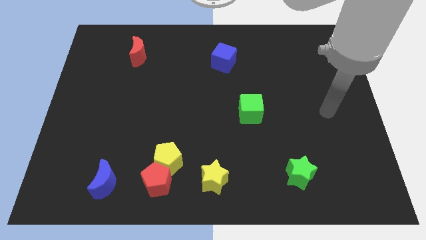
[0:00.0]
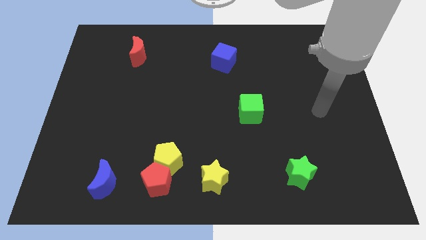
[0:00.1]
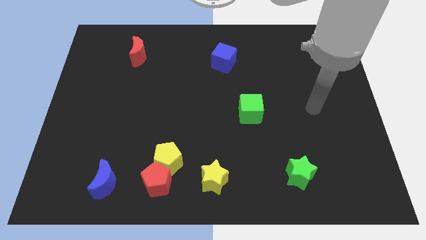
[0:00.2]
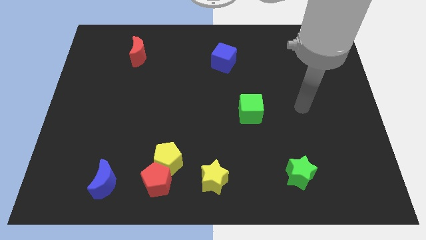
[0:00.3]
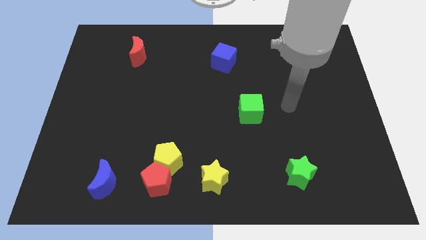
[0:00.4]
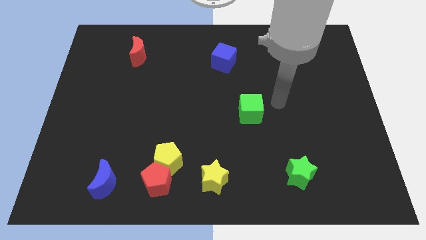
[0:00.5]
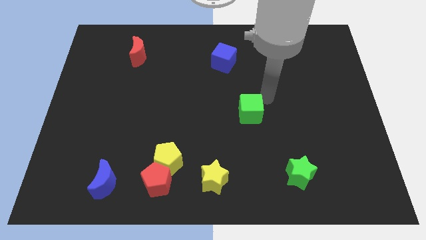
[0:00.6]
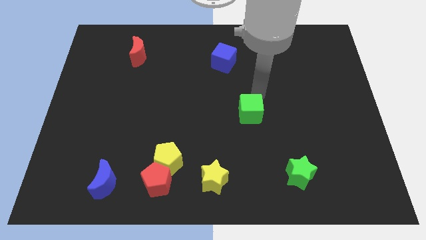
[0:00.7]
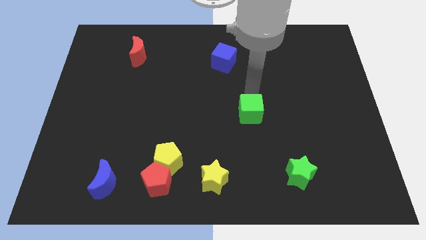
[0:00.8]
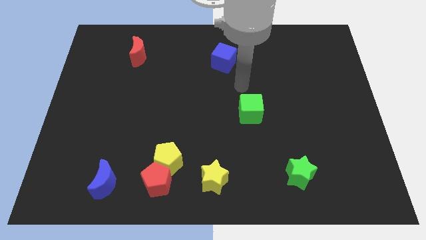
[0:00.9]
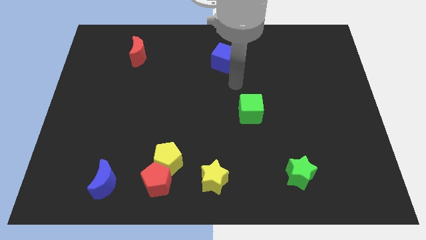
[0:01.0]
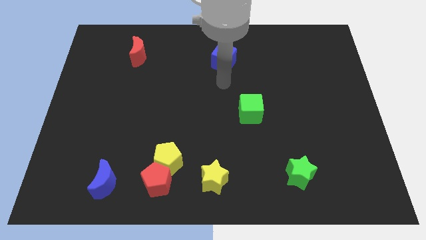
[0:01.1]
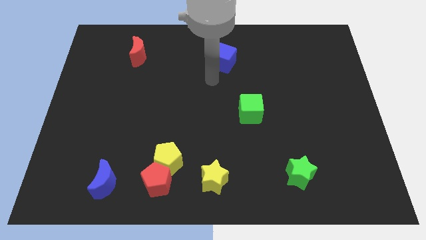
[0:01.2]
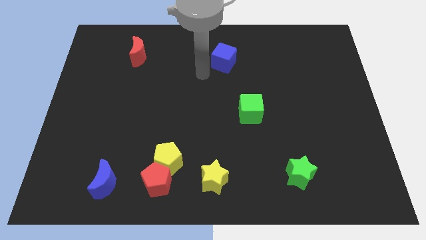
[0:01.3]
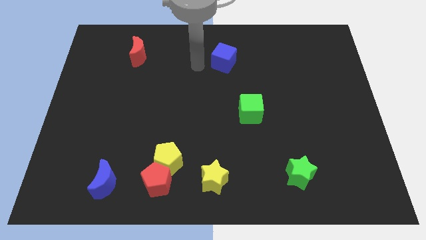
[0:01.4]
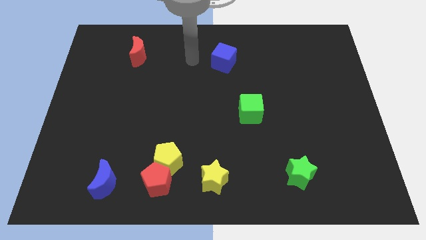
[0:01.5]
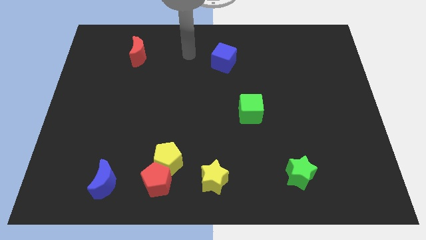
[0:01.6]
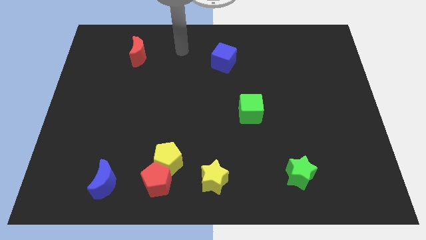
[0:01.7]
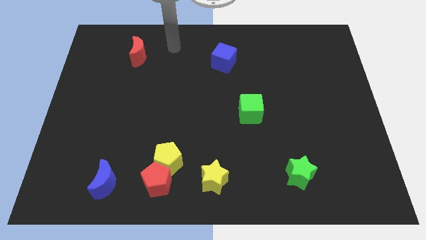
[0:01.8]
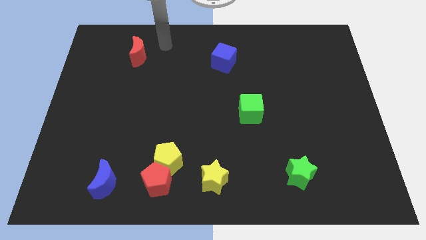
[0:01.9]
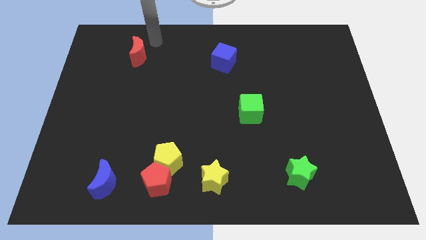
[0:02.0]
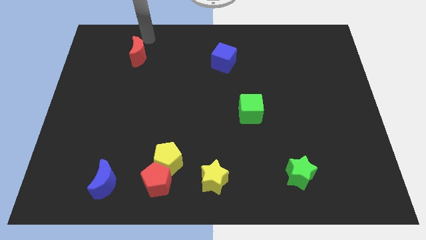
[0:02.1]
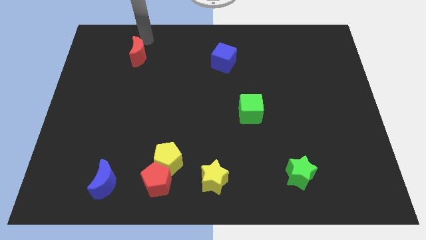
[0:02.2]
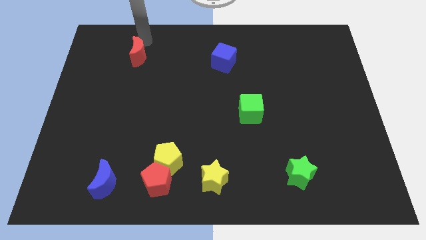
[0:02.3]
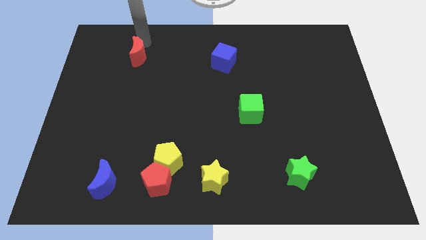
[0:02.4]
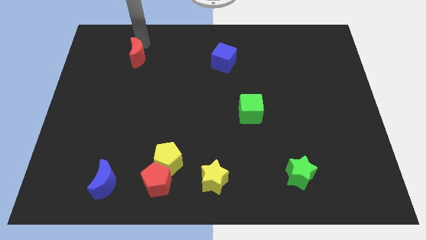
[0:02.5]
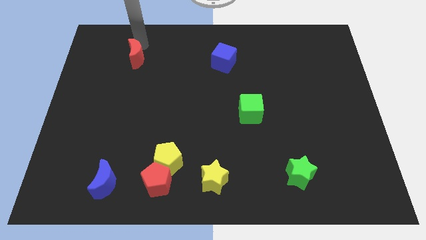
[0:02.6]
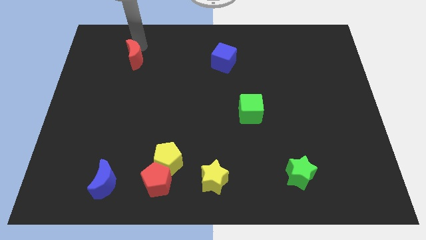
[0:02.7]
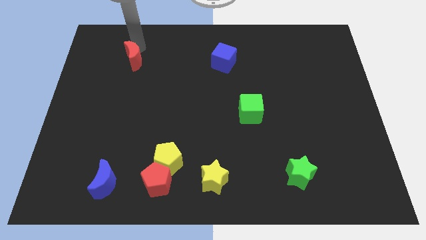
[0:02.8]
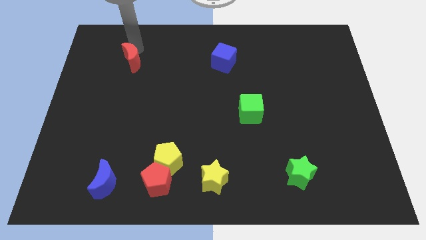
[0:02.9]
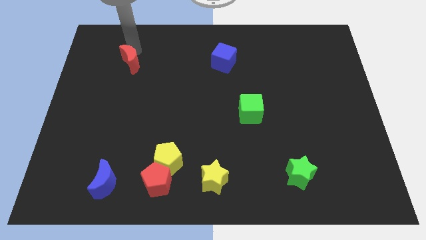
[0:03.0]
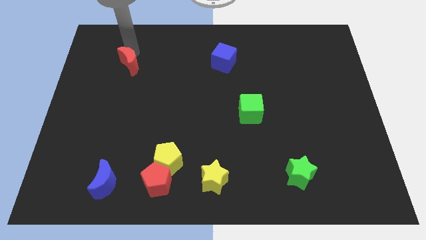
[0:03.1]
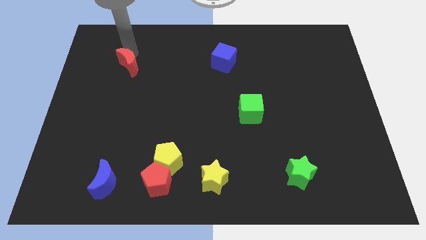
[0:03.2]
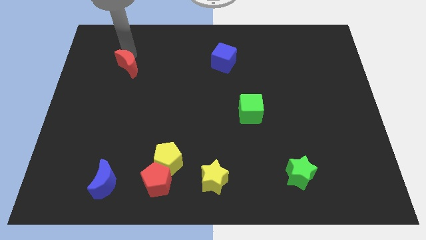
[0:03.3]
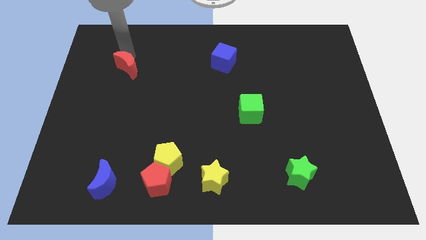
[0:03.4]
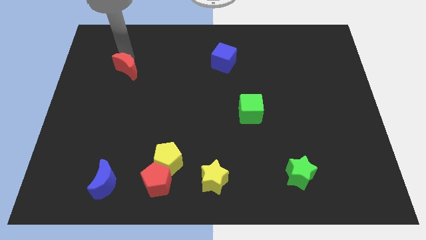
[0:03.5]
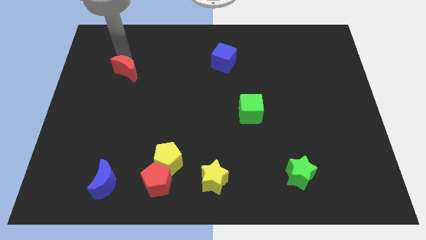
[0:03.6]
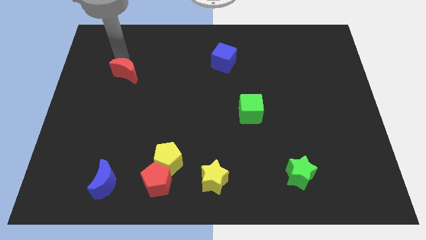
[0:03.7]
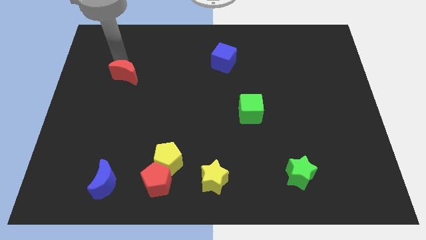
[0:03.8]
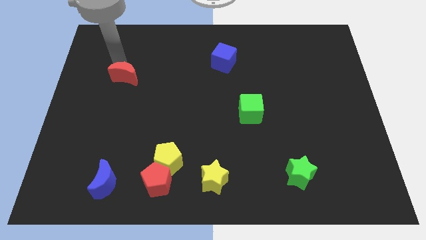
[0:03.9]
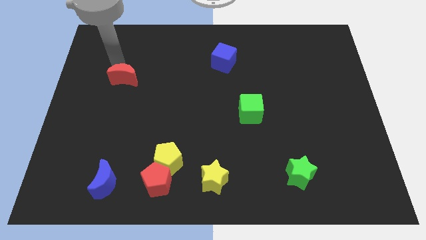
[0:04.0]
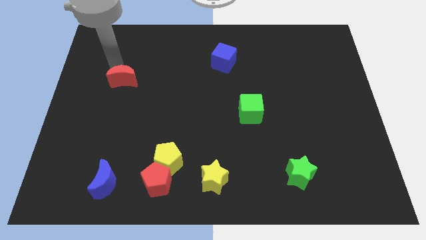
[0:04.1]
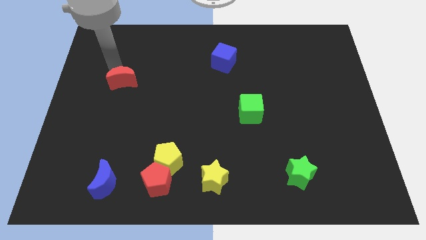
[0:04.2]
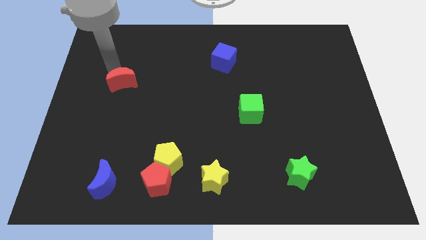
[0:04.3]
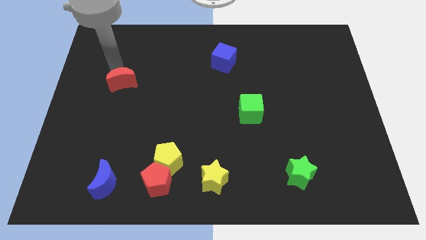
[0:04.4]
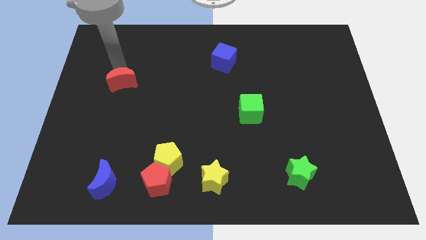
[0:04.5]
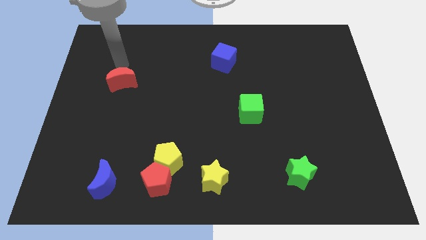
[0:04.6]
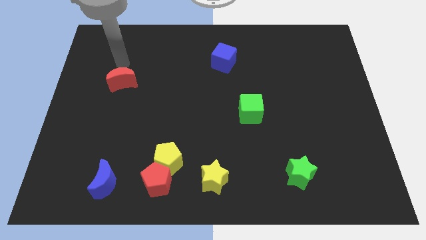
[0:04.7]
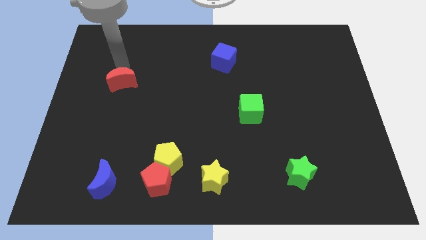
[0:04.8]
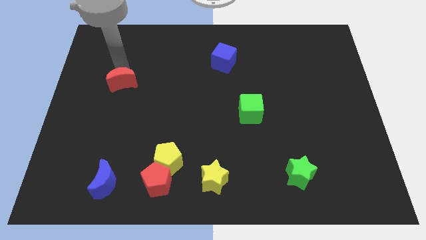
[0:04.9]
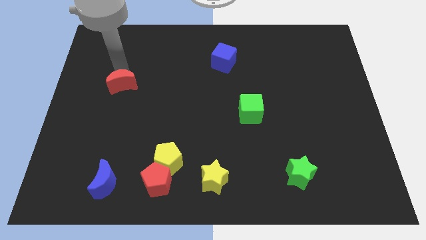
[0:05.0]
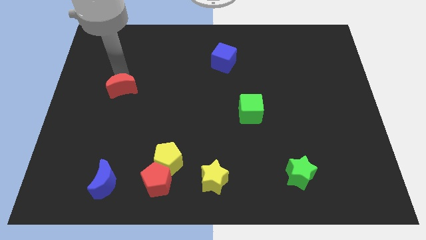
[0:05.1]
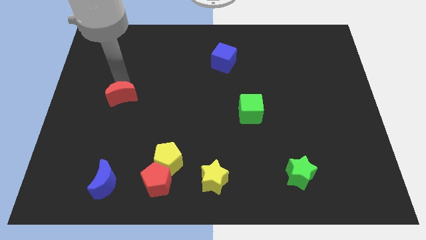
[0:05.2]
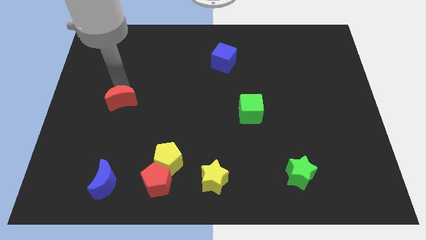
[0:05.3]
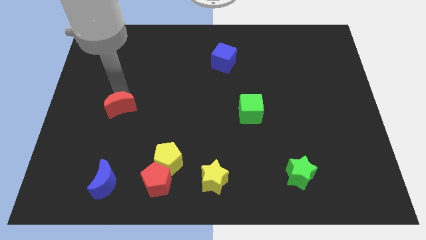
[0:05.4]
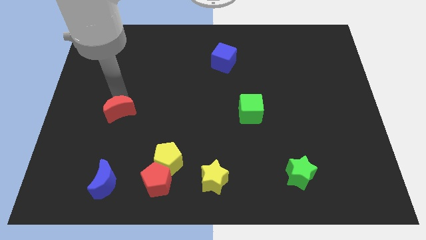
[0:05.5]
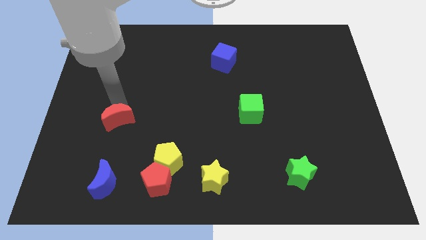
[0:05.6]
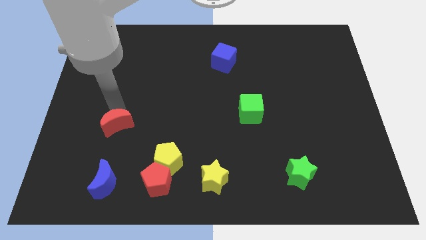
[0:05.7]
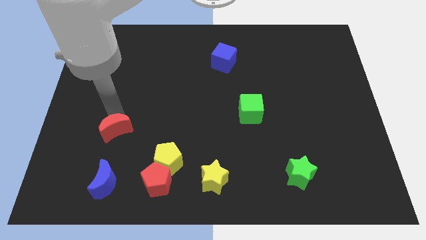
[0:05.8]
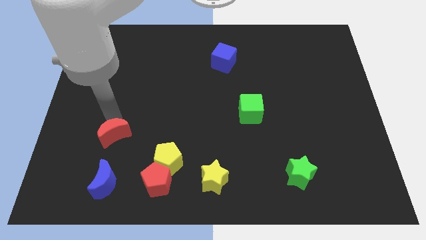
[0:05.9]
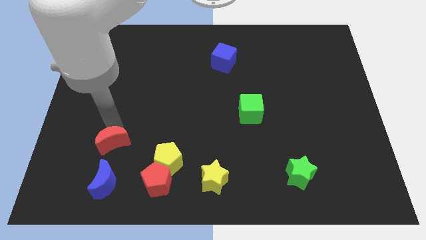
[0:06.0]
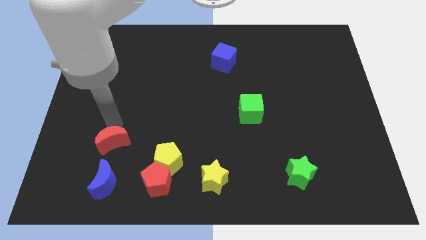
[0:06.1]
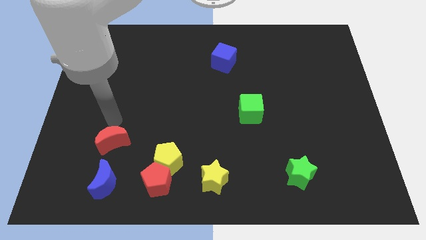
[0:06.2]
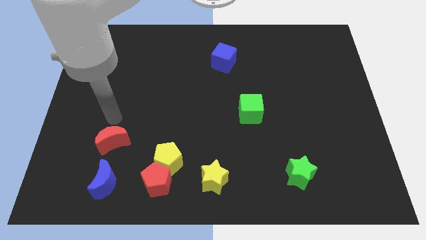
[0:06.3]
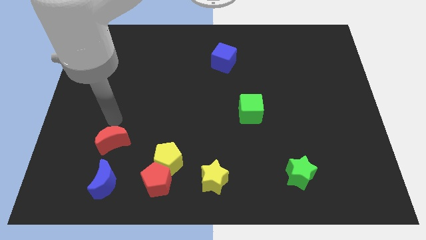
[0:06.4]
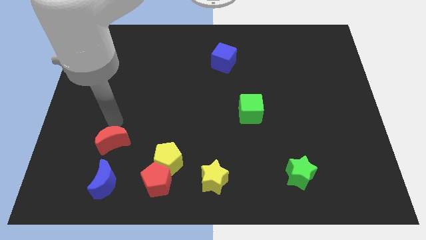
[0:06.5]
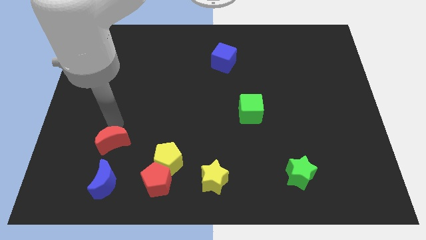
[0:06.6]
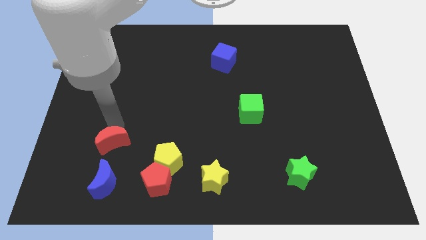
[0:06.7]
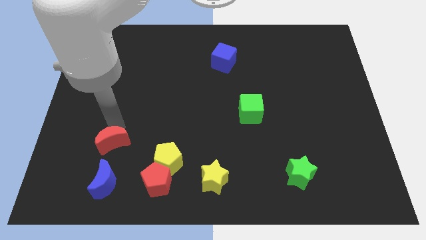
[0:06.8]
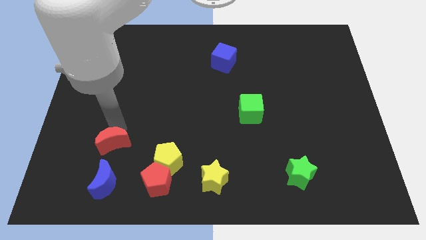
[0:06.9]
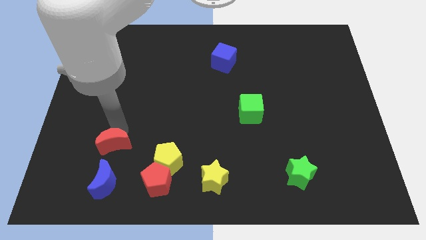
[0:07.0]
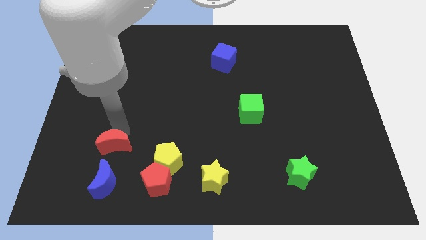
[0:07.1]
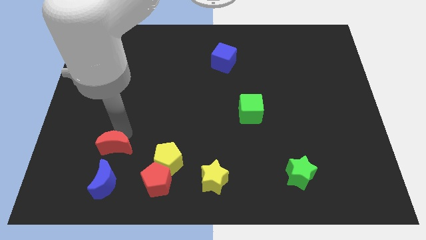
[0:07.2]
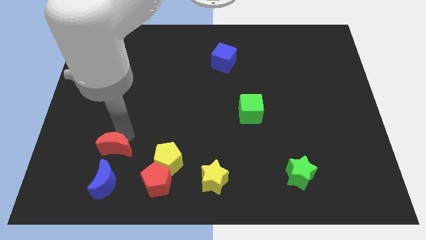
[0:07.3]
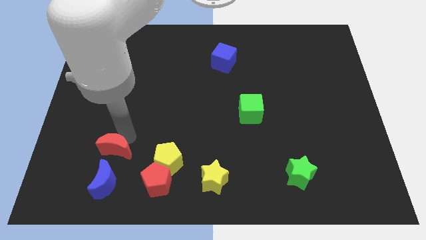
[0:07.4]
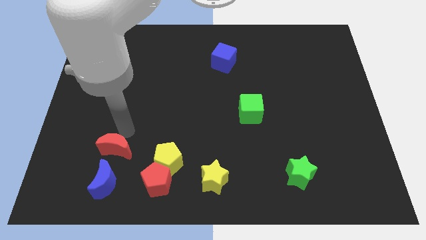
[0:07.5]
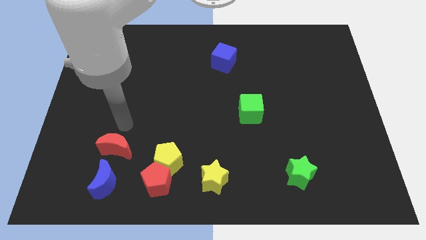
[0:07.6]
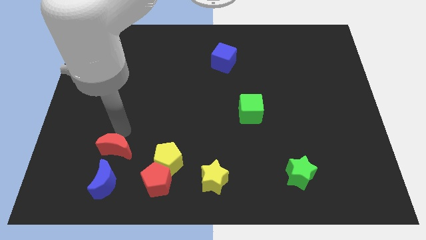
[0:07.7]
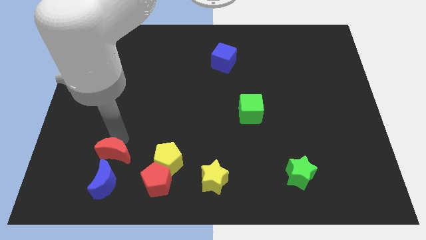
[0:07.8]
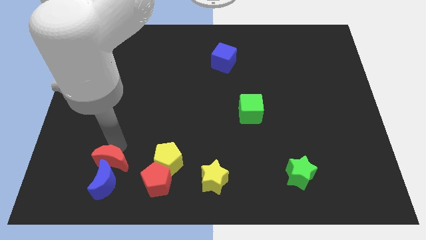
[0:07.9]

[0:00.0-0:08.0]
put the red moon close to the blue moon

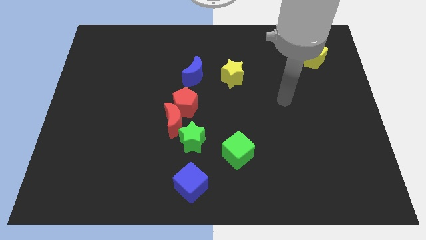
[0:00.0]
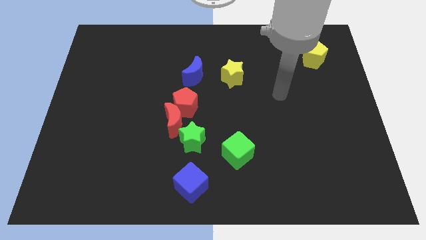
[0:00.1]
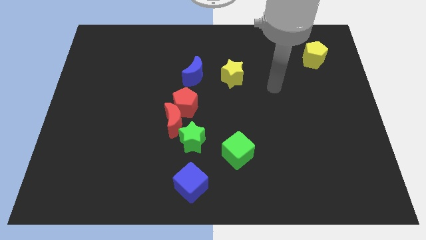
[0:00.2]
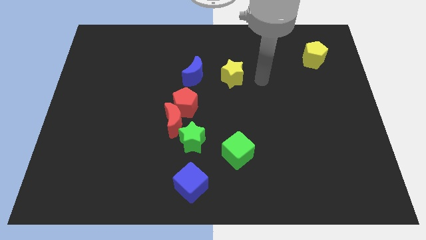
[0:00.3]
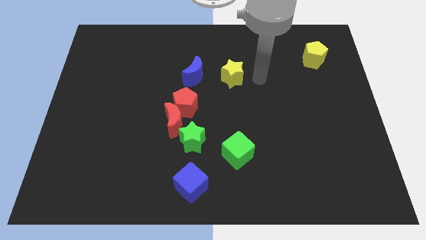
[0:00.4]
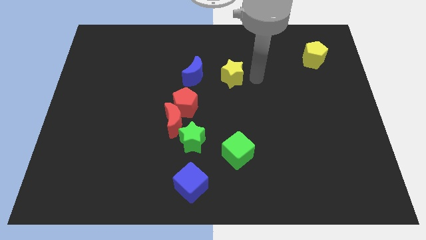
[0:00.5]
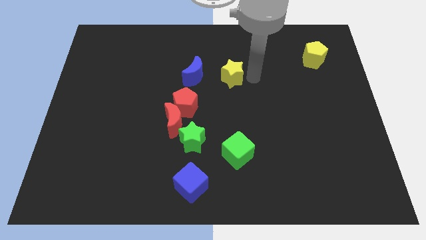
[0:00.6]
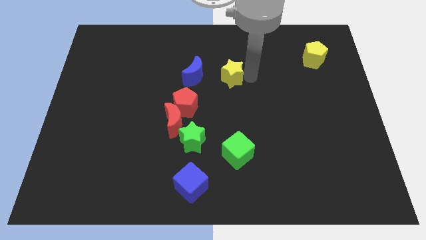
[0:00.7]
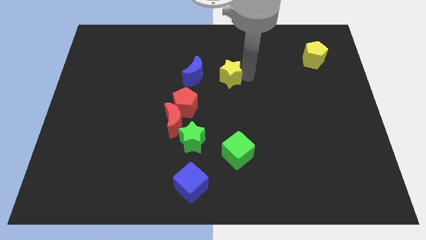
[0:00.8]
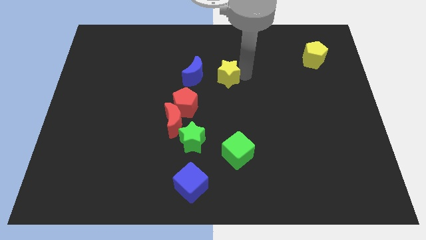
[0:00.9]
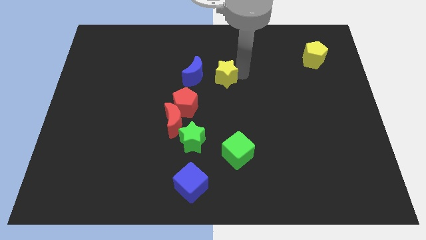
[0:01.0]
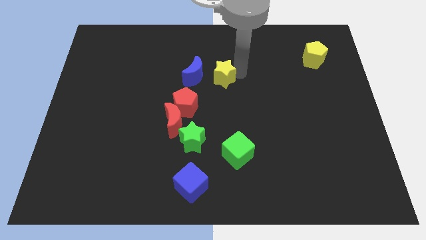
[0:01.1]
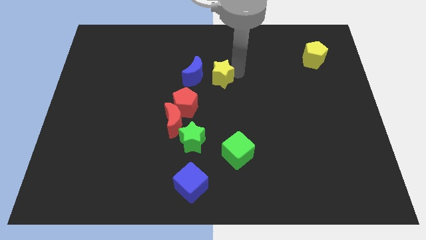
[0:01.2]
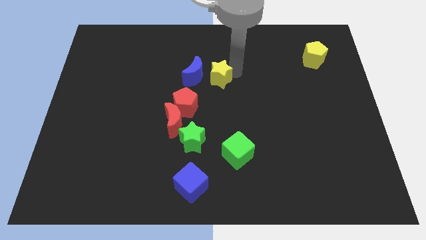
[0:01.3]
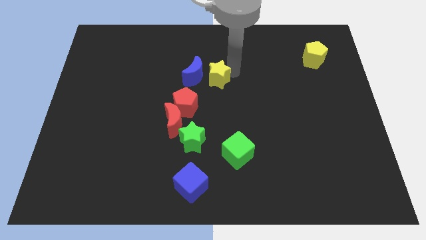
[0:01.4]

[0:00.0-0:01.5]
push the yellow star to the blue moon
